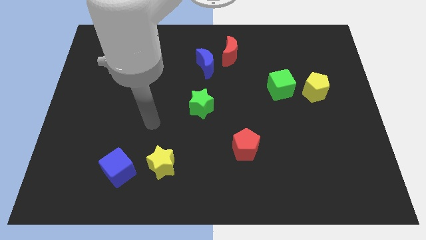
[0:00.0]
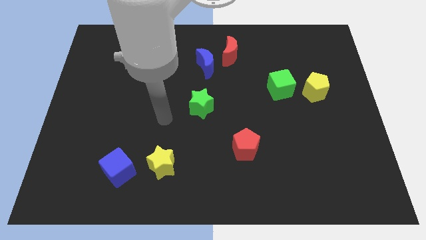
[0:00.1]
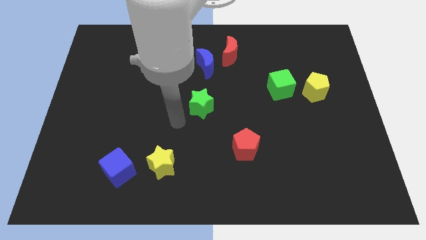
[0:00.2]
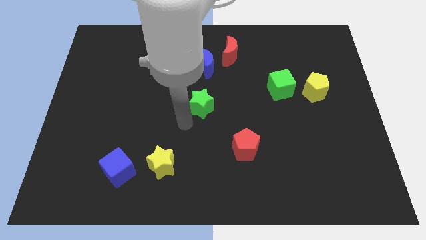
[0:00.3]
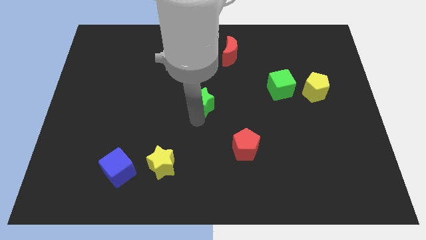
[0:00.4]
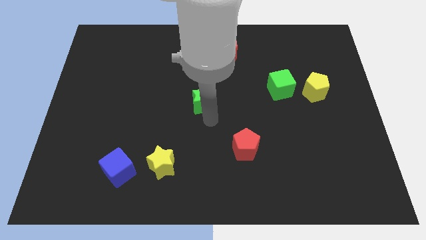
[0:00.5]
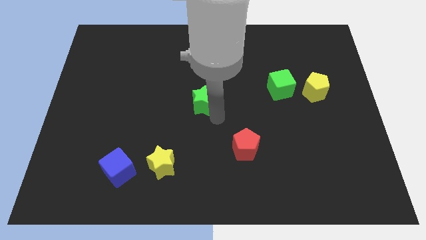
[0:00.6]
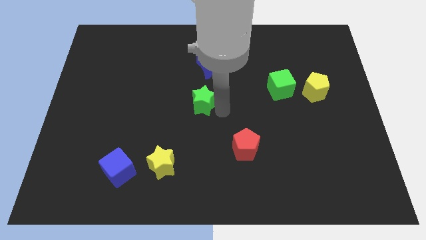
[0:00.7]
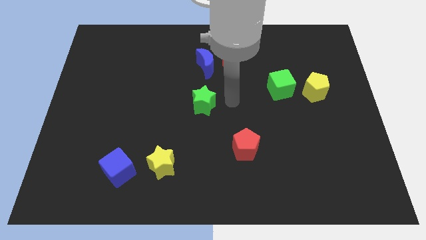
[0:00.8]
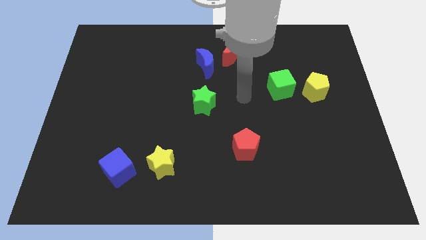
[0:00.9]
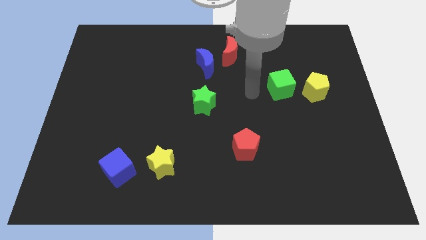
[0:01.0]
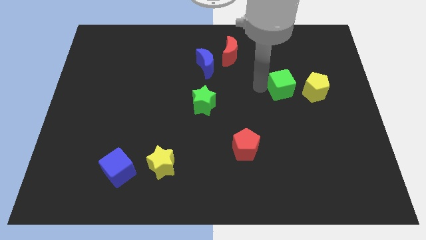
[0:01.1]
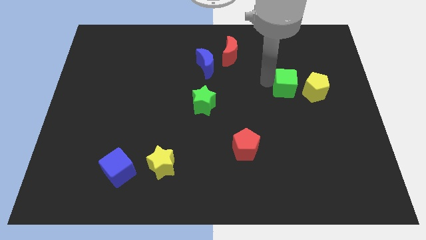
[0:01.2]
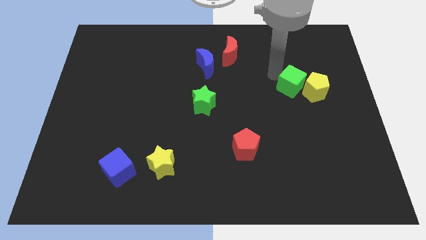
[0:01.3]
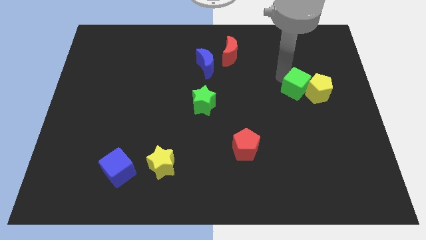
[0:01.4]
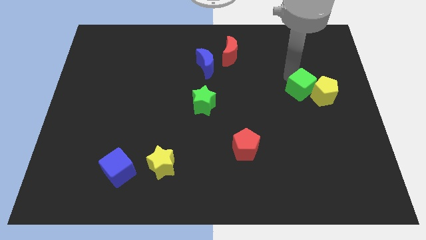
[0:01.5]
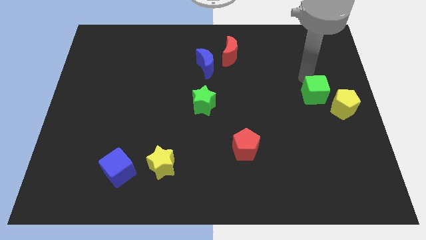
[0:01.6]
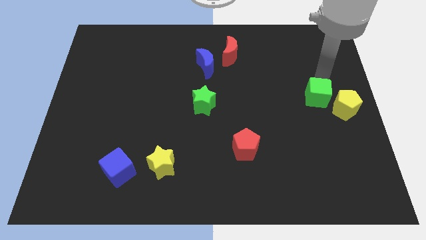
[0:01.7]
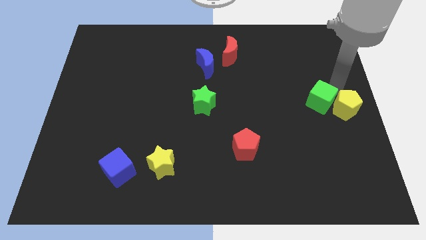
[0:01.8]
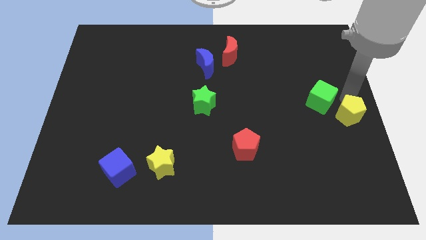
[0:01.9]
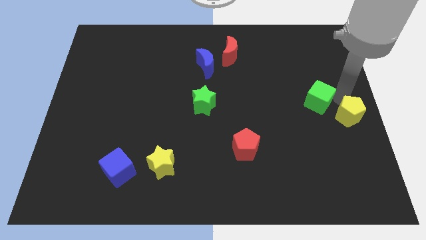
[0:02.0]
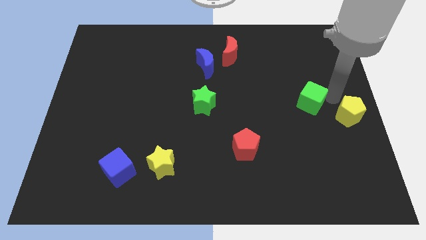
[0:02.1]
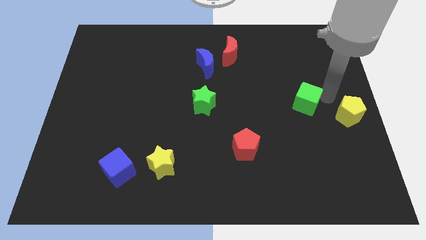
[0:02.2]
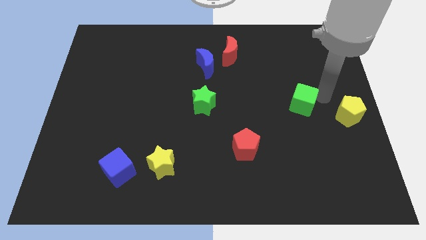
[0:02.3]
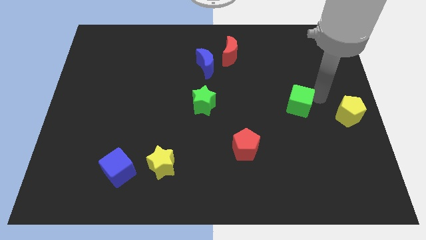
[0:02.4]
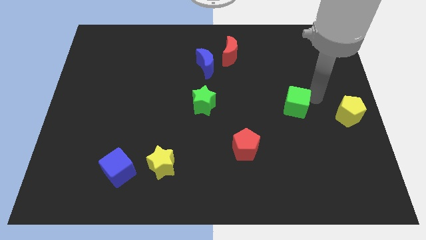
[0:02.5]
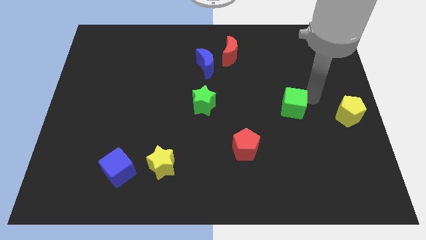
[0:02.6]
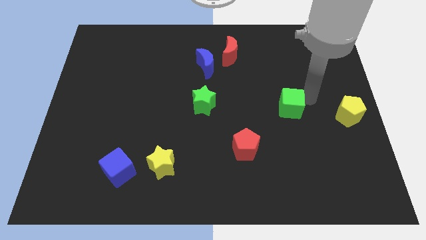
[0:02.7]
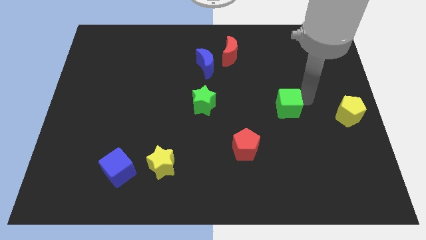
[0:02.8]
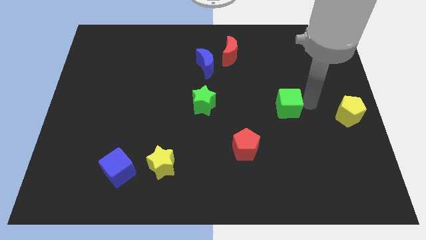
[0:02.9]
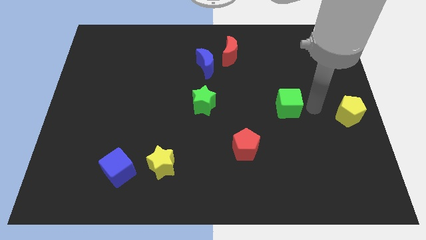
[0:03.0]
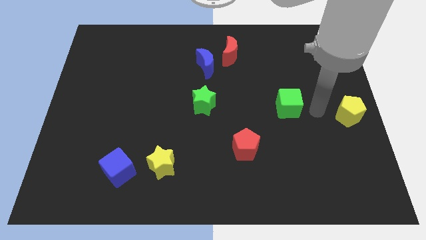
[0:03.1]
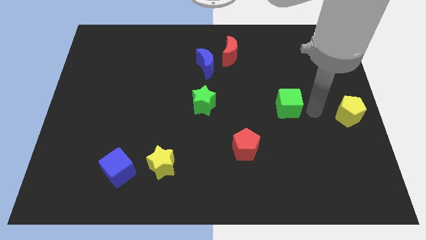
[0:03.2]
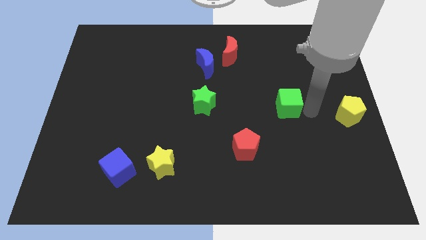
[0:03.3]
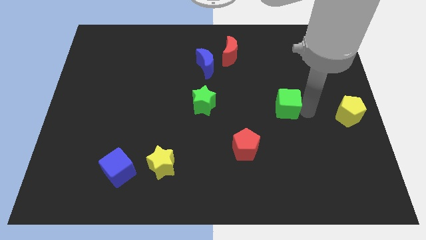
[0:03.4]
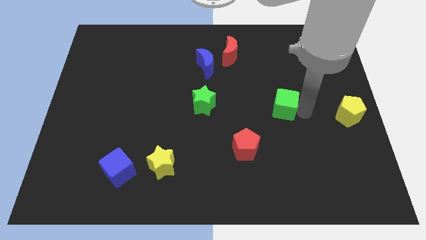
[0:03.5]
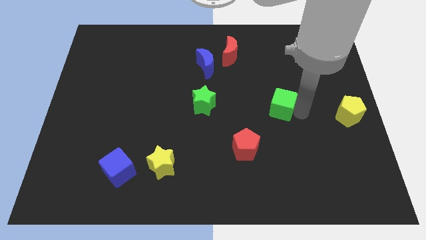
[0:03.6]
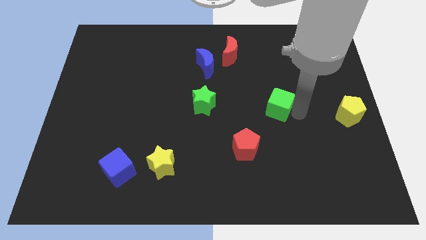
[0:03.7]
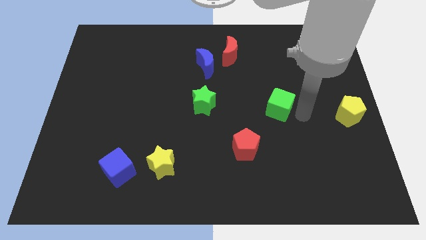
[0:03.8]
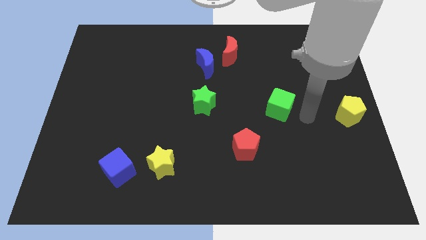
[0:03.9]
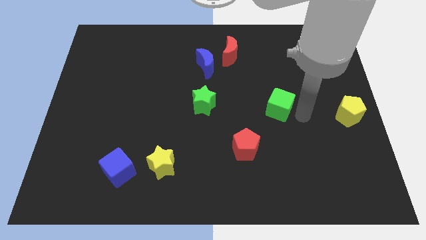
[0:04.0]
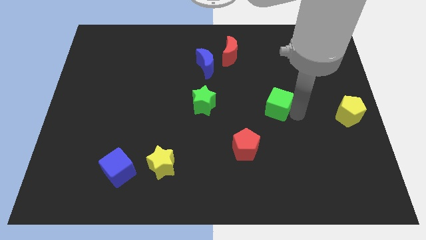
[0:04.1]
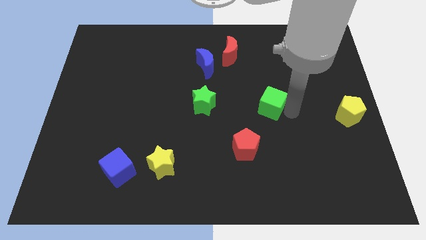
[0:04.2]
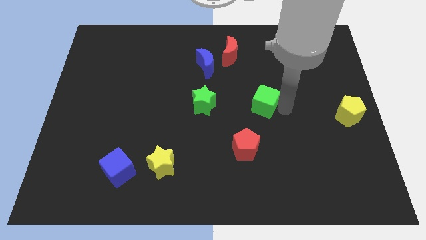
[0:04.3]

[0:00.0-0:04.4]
slide the green cube a little down and then left

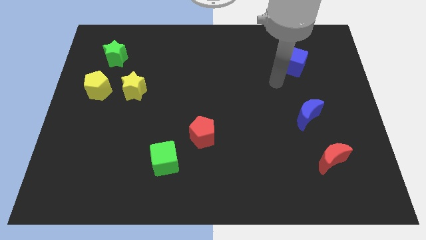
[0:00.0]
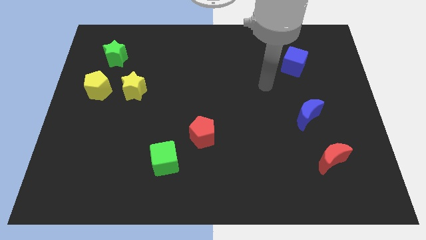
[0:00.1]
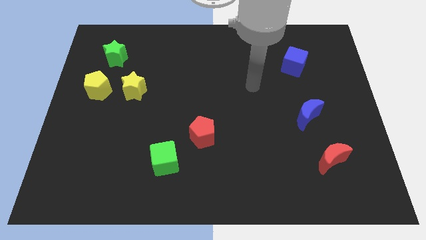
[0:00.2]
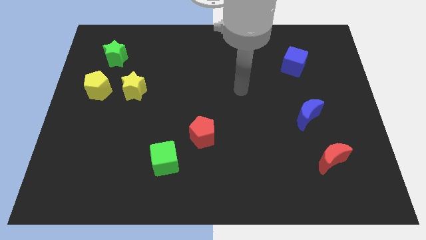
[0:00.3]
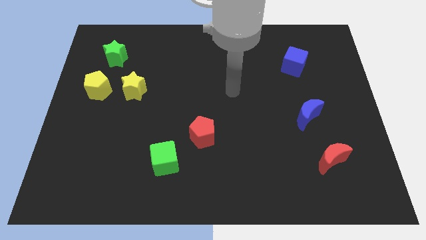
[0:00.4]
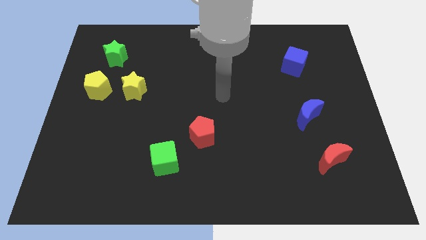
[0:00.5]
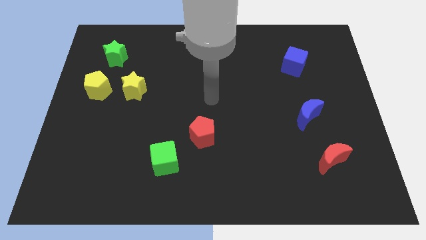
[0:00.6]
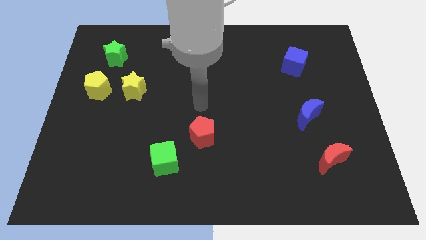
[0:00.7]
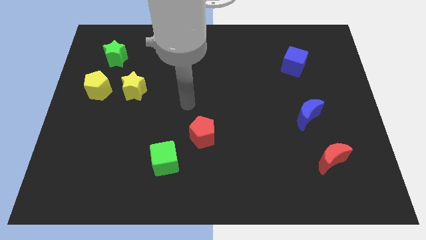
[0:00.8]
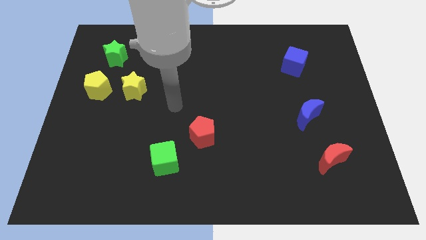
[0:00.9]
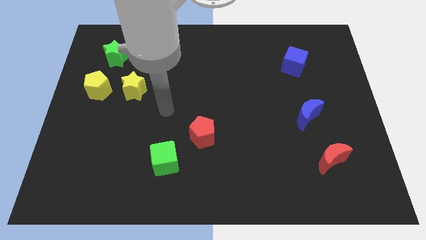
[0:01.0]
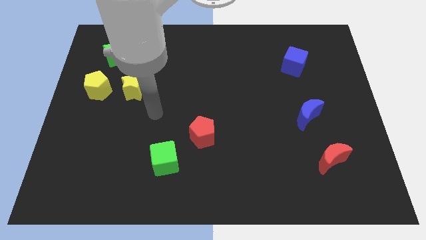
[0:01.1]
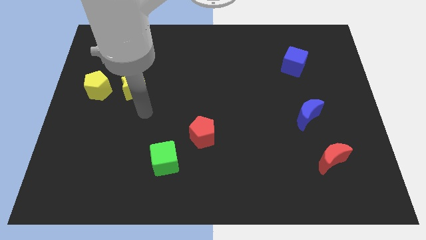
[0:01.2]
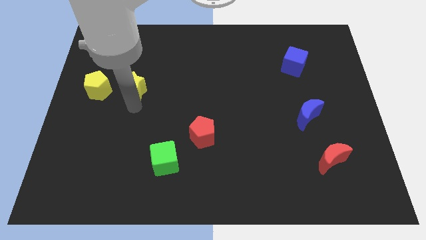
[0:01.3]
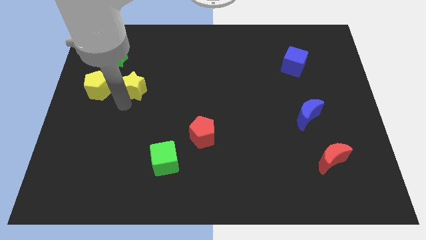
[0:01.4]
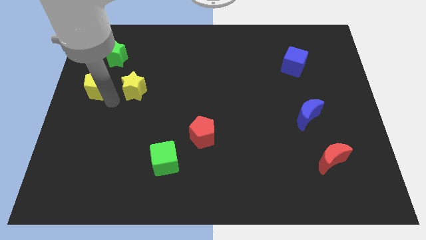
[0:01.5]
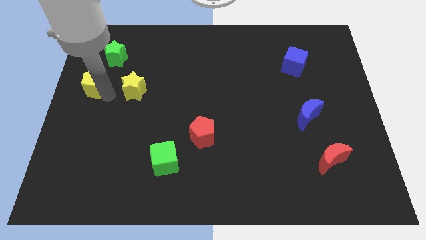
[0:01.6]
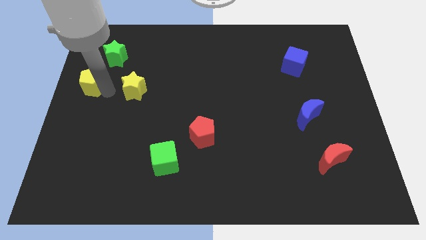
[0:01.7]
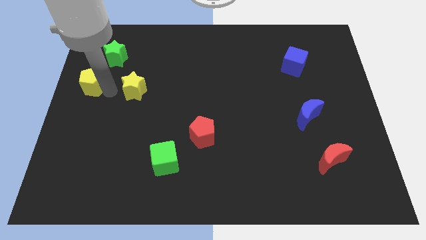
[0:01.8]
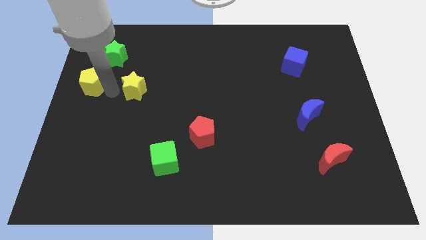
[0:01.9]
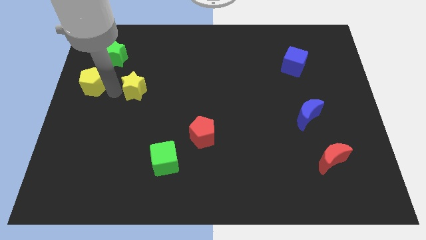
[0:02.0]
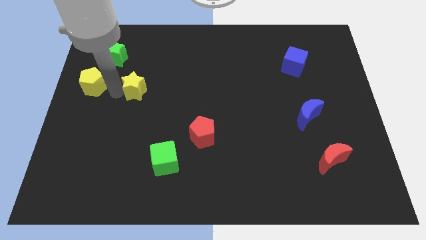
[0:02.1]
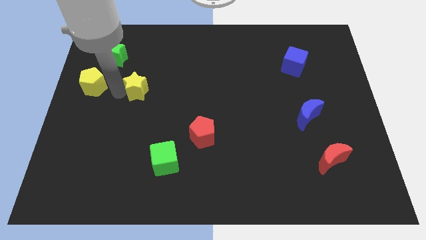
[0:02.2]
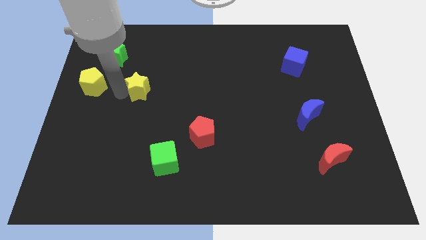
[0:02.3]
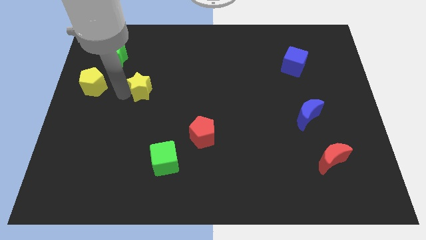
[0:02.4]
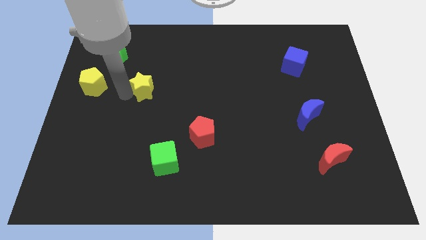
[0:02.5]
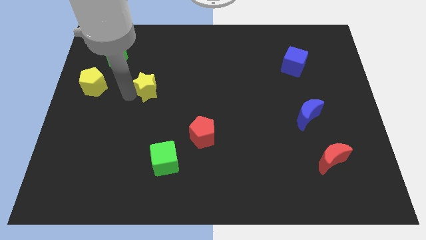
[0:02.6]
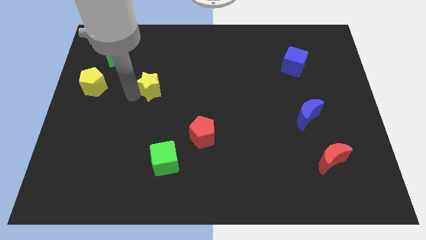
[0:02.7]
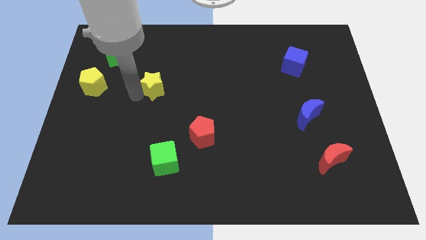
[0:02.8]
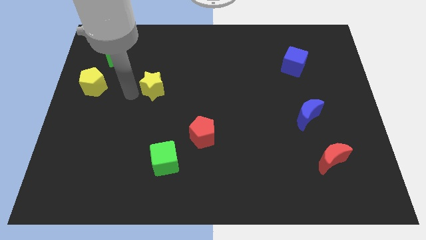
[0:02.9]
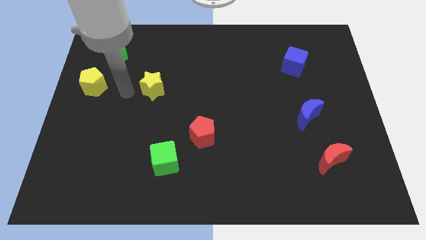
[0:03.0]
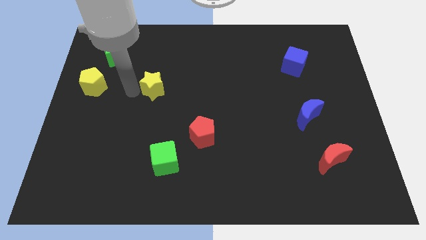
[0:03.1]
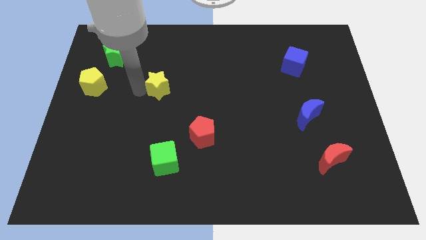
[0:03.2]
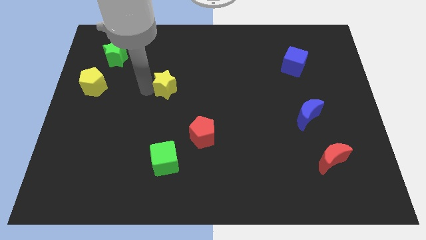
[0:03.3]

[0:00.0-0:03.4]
slide the yellow star right a little

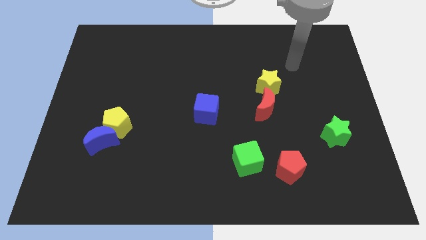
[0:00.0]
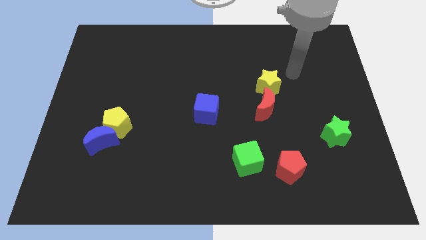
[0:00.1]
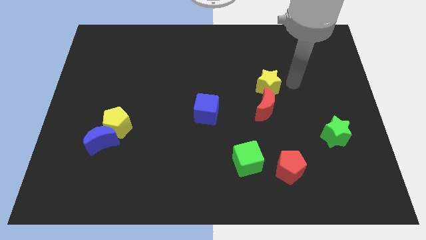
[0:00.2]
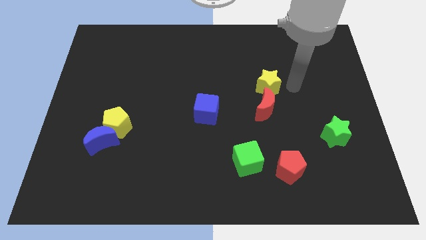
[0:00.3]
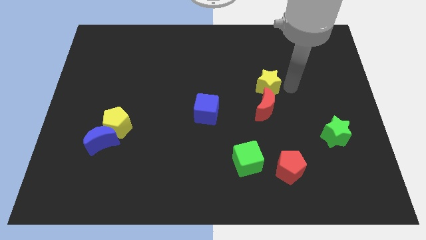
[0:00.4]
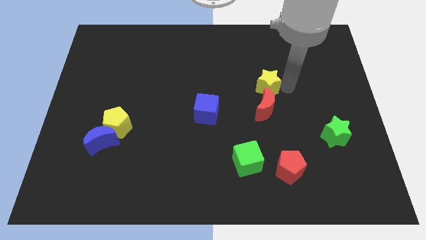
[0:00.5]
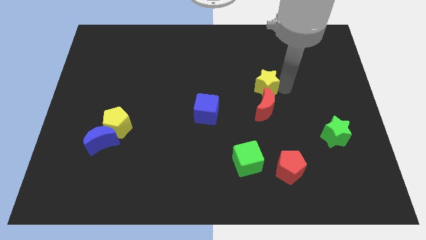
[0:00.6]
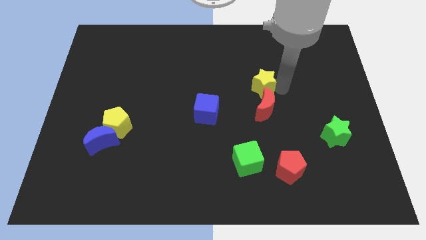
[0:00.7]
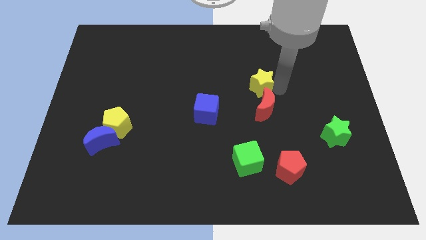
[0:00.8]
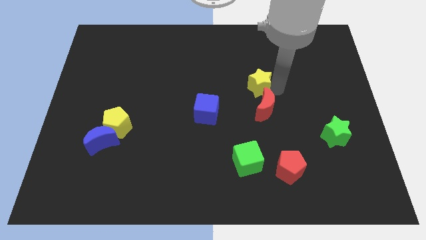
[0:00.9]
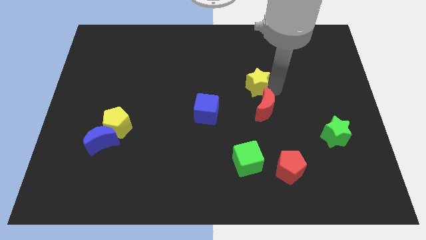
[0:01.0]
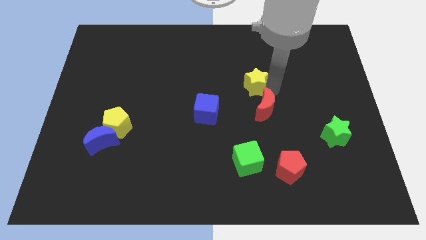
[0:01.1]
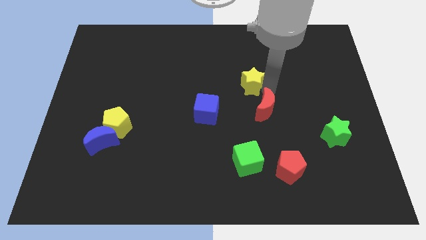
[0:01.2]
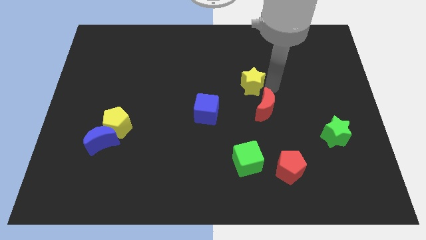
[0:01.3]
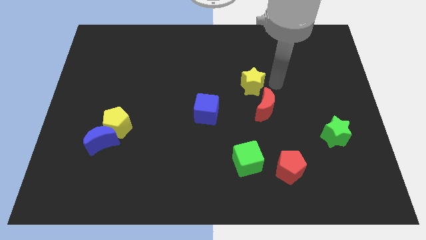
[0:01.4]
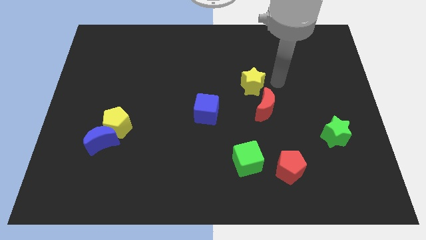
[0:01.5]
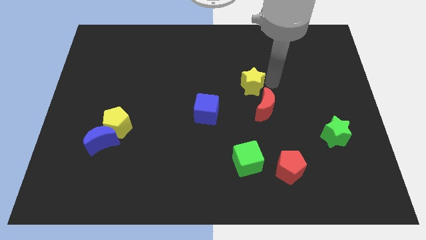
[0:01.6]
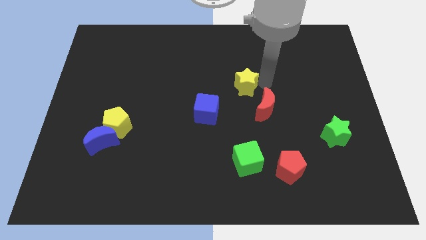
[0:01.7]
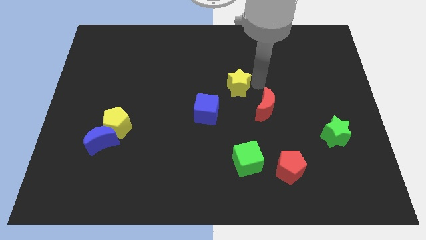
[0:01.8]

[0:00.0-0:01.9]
move the yellow star somewhat to the left
